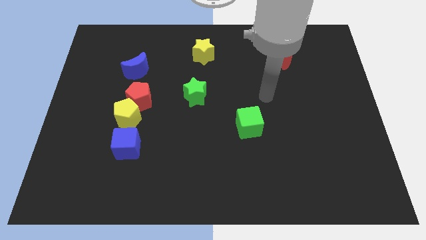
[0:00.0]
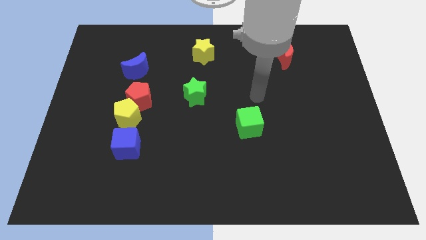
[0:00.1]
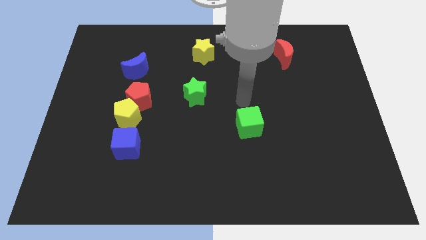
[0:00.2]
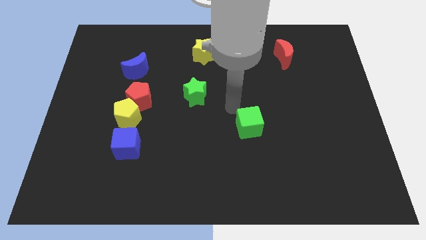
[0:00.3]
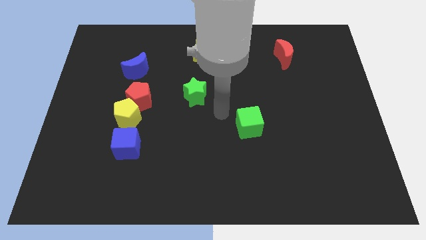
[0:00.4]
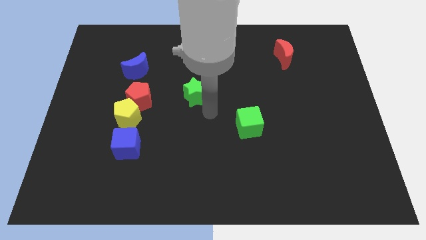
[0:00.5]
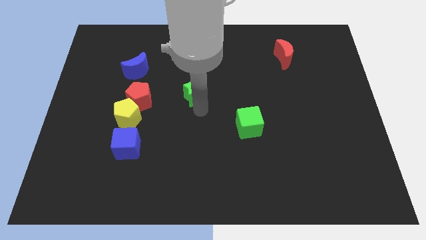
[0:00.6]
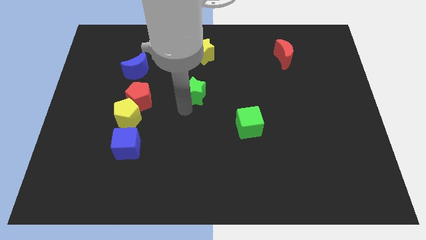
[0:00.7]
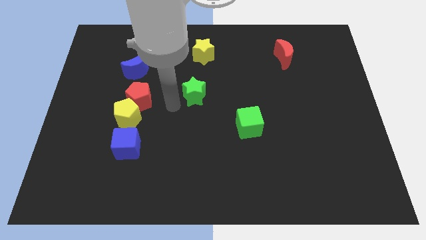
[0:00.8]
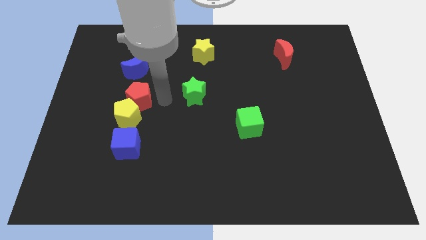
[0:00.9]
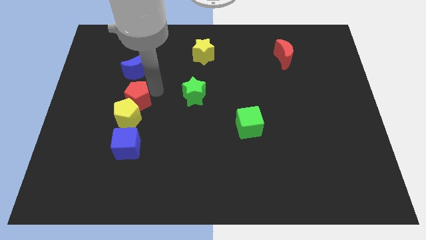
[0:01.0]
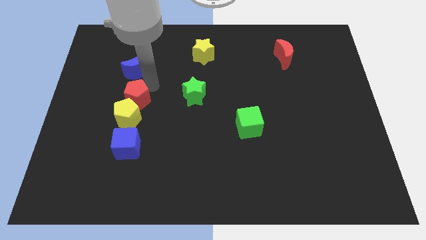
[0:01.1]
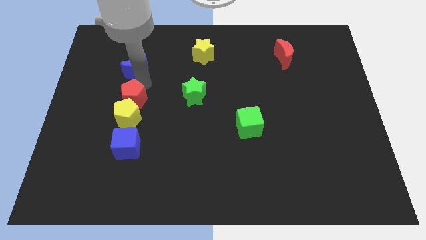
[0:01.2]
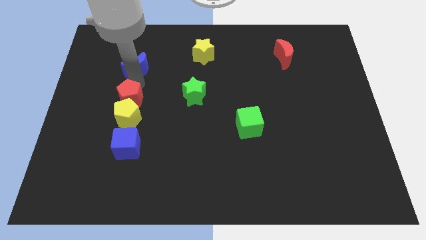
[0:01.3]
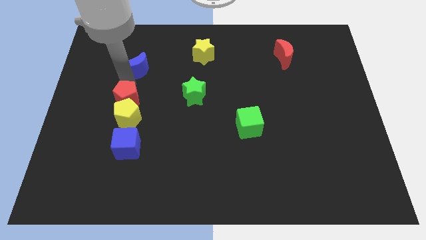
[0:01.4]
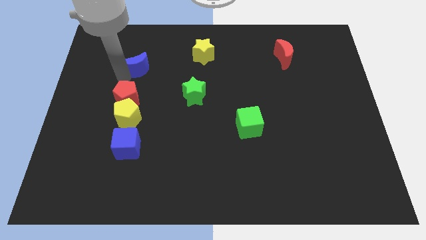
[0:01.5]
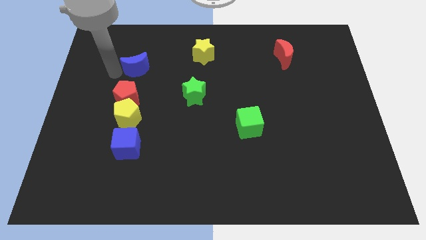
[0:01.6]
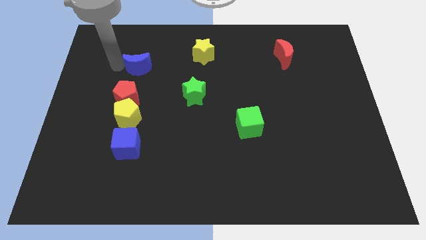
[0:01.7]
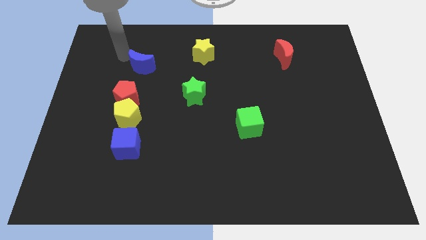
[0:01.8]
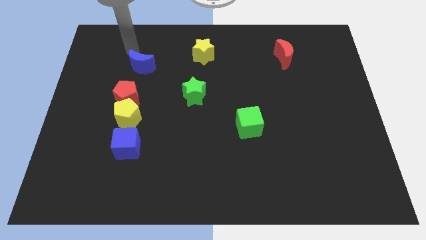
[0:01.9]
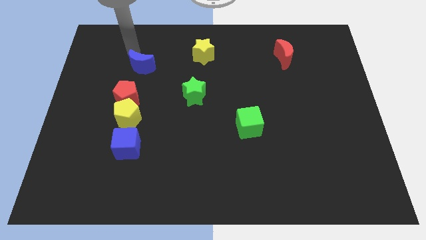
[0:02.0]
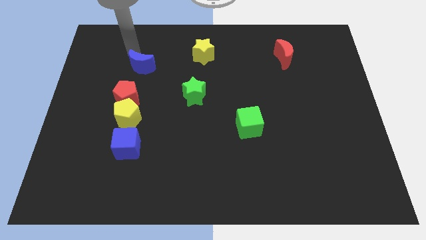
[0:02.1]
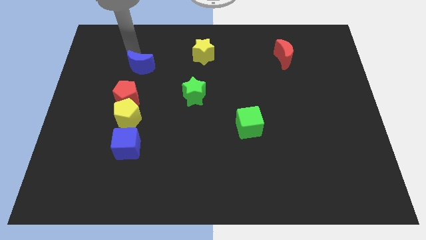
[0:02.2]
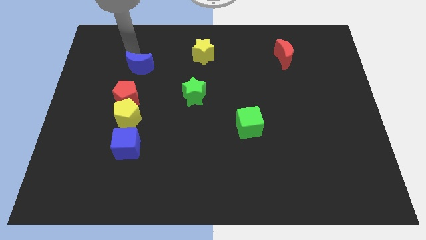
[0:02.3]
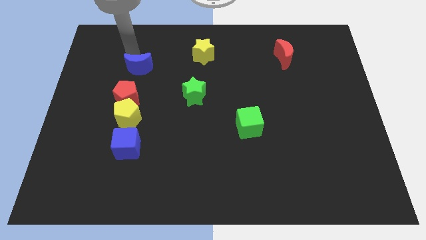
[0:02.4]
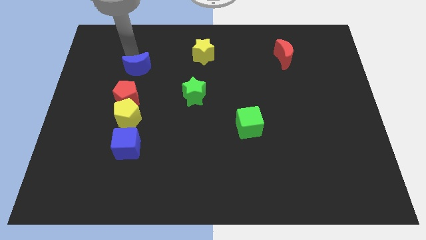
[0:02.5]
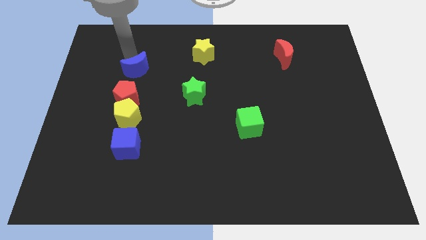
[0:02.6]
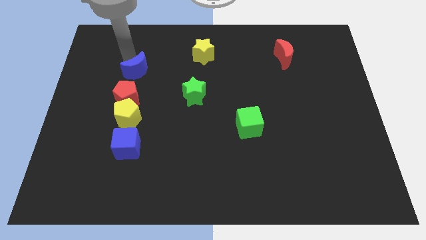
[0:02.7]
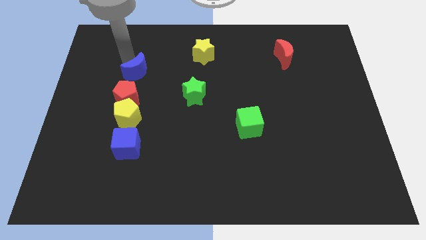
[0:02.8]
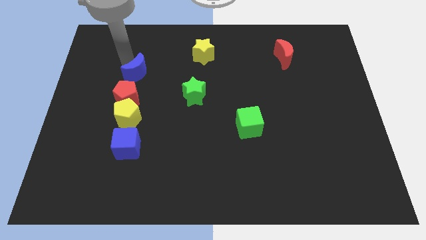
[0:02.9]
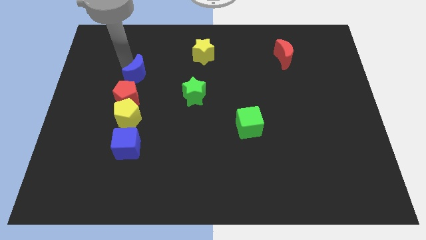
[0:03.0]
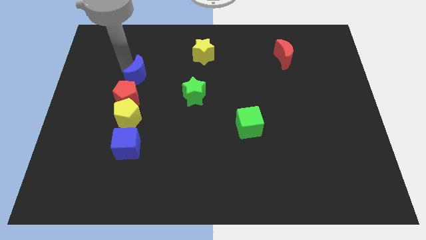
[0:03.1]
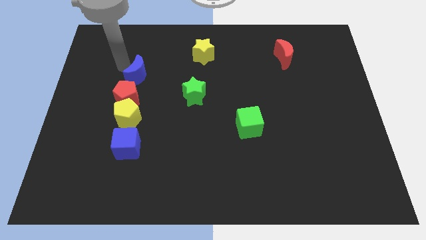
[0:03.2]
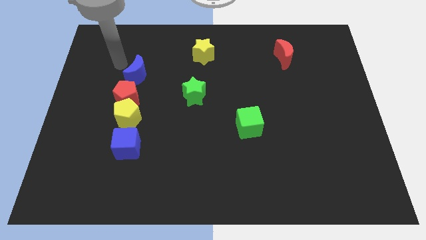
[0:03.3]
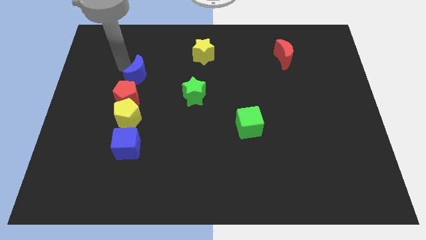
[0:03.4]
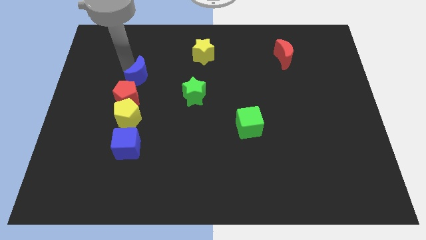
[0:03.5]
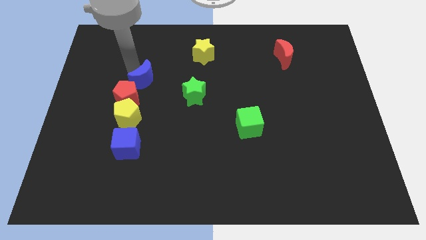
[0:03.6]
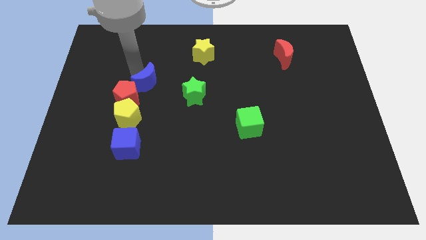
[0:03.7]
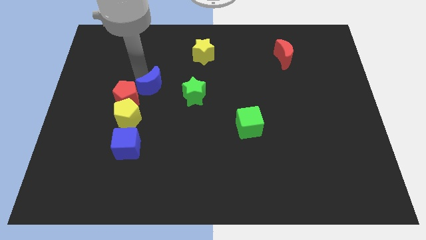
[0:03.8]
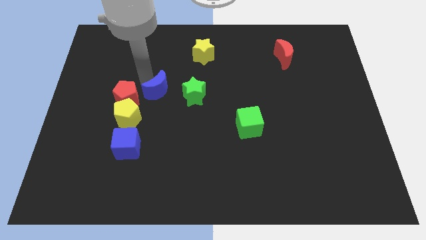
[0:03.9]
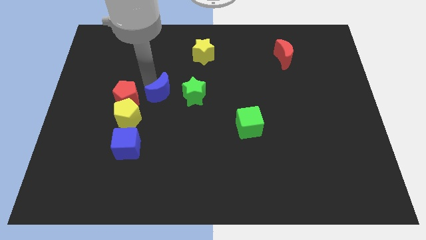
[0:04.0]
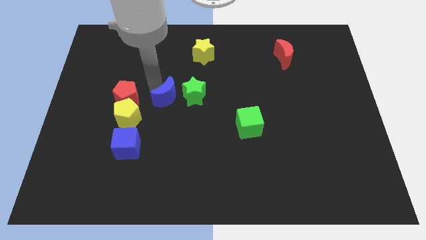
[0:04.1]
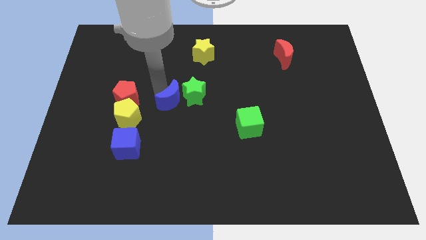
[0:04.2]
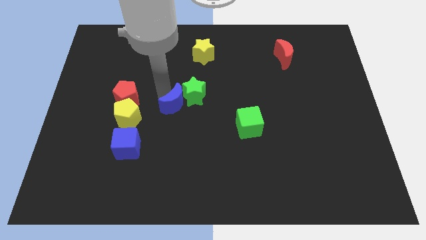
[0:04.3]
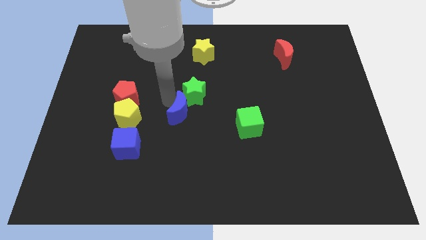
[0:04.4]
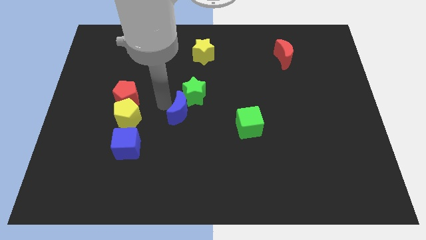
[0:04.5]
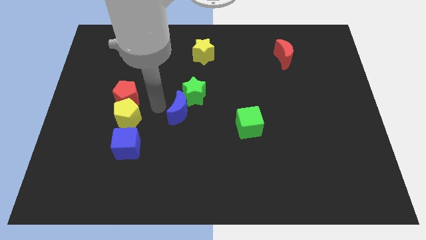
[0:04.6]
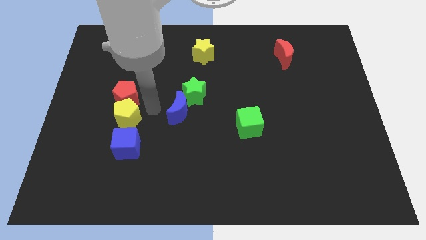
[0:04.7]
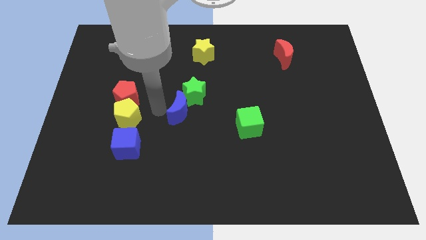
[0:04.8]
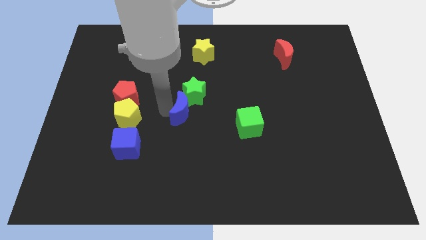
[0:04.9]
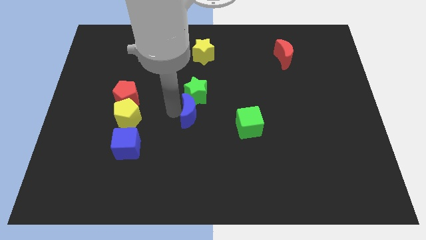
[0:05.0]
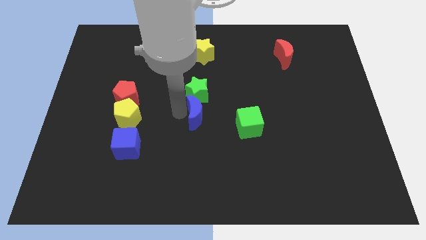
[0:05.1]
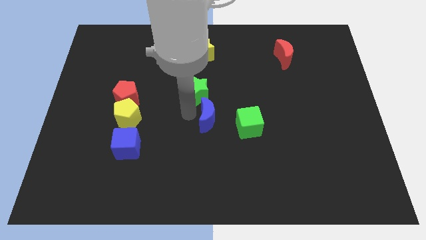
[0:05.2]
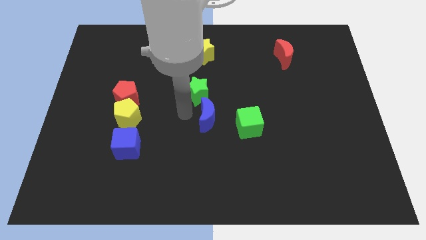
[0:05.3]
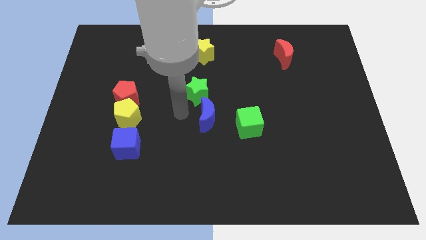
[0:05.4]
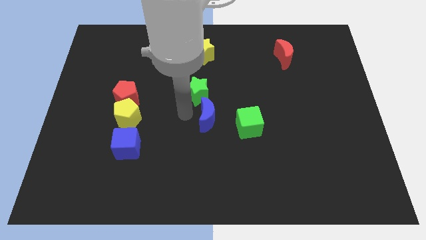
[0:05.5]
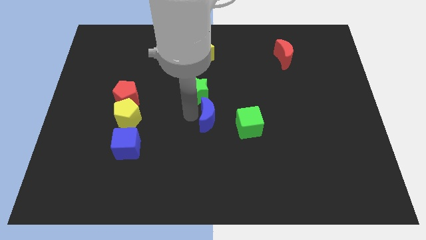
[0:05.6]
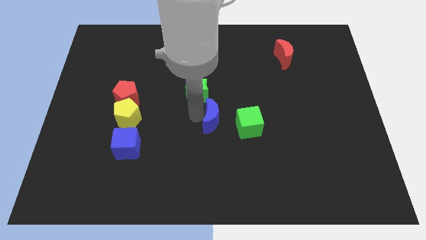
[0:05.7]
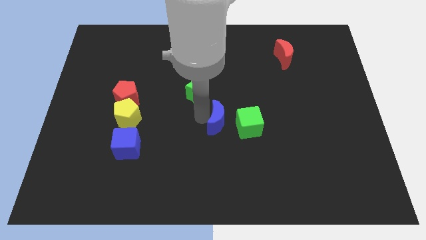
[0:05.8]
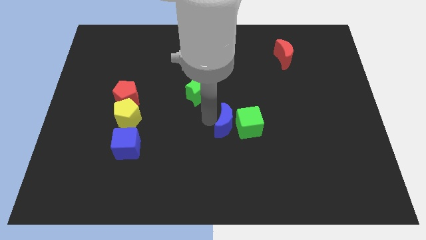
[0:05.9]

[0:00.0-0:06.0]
move the blue moon close to the green cube
